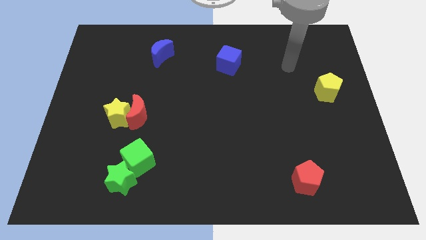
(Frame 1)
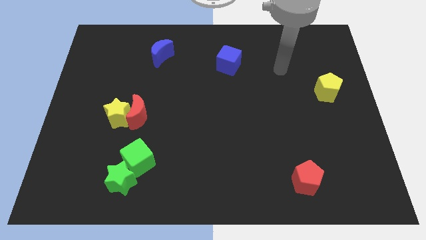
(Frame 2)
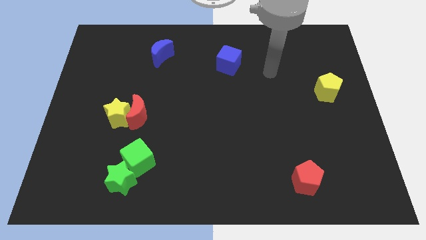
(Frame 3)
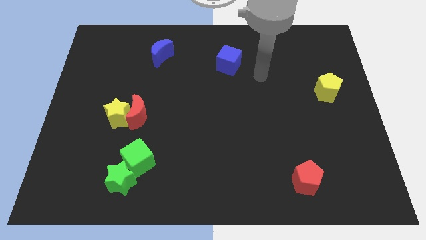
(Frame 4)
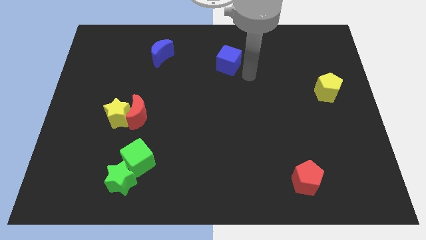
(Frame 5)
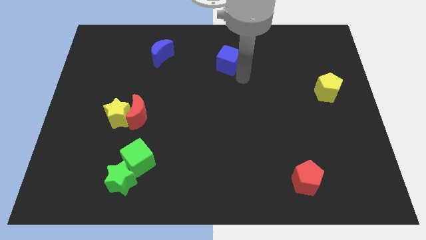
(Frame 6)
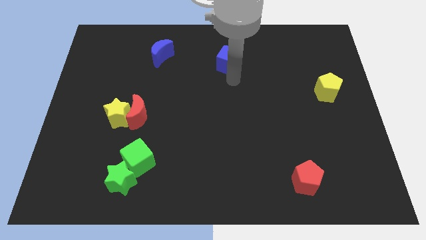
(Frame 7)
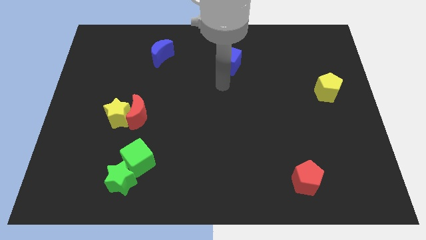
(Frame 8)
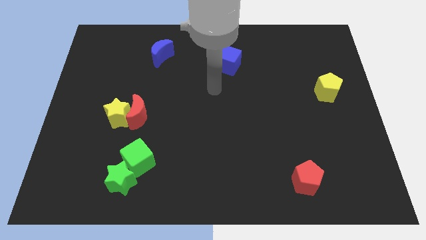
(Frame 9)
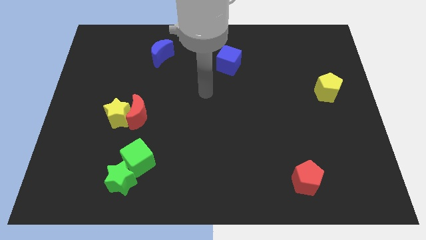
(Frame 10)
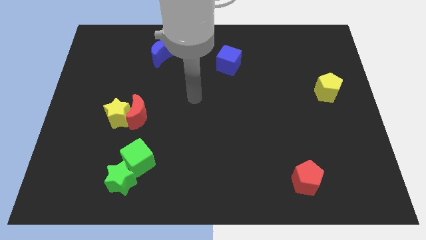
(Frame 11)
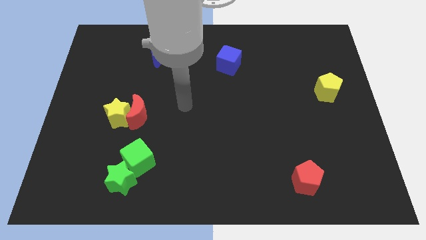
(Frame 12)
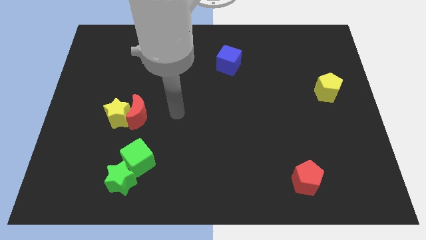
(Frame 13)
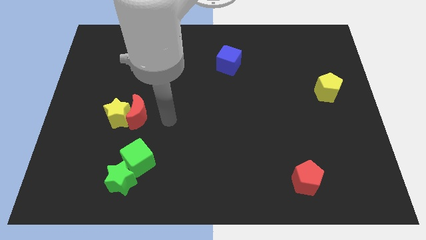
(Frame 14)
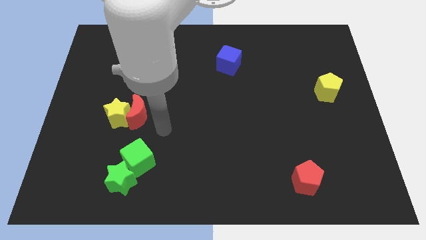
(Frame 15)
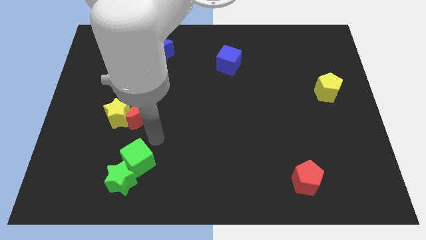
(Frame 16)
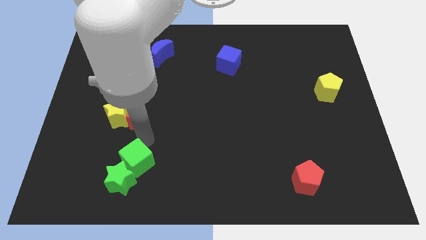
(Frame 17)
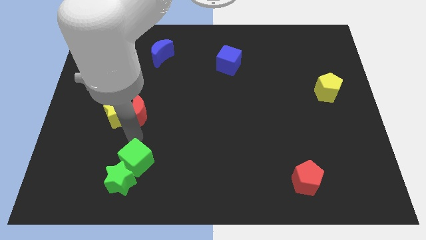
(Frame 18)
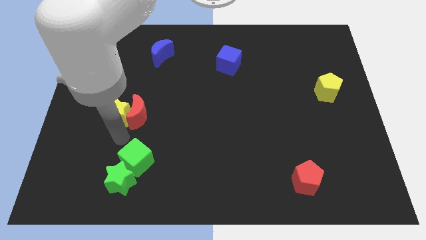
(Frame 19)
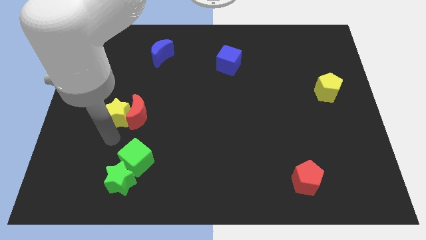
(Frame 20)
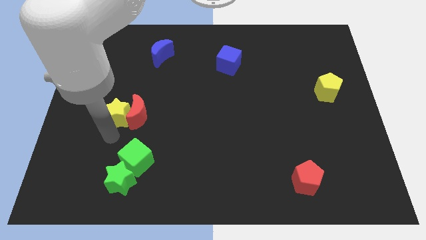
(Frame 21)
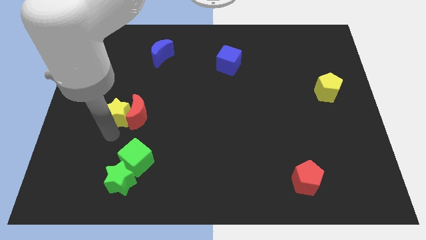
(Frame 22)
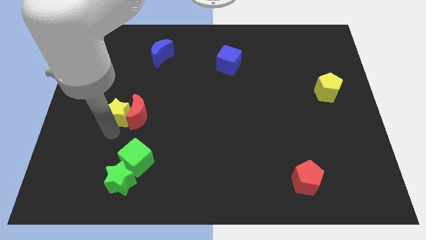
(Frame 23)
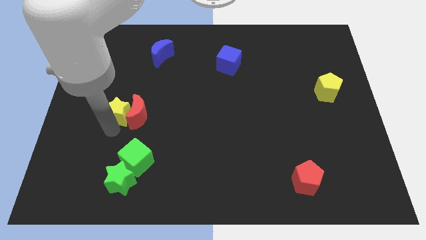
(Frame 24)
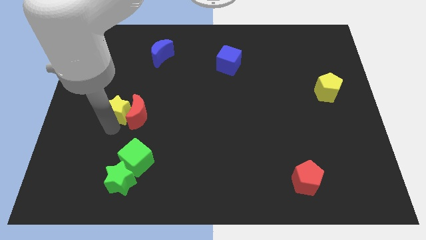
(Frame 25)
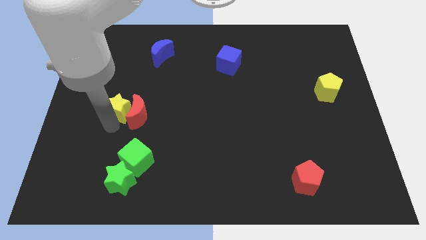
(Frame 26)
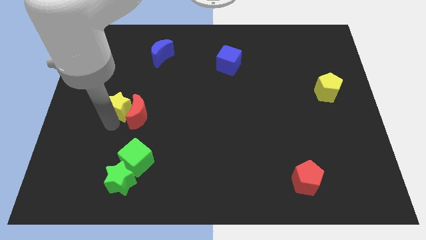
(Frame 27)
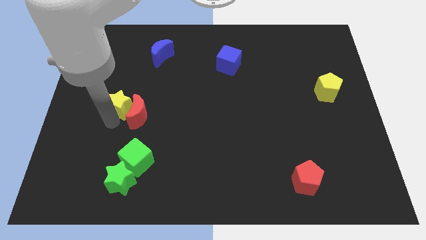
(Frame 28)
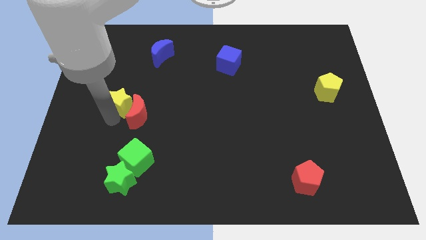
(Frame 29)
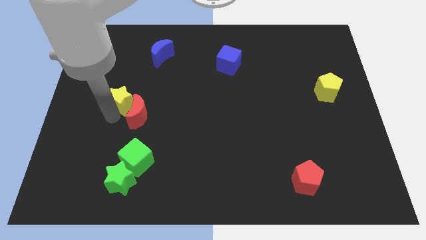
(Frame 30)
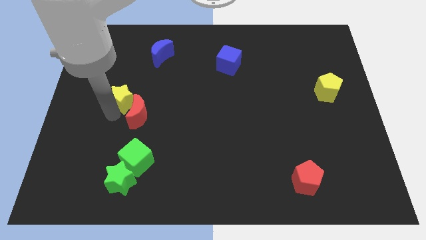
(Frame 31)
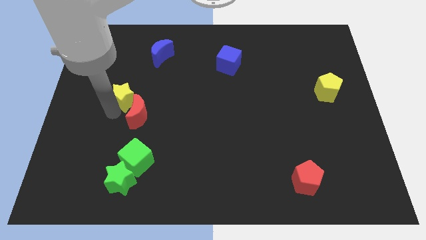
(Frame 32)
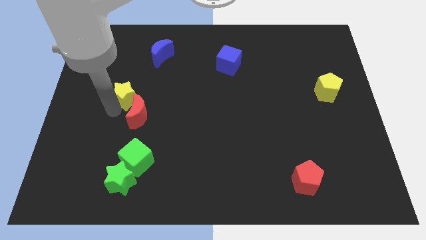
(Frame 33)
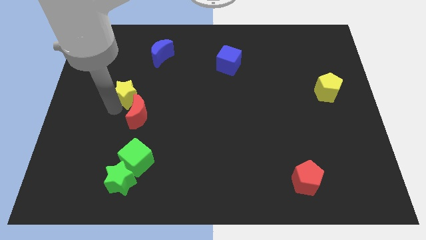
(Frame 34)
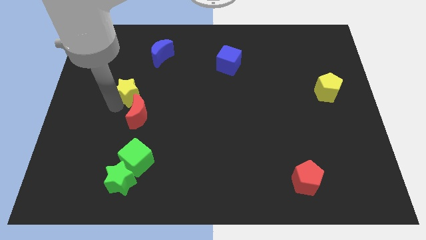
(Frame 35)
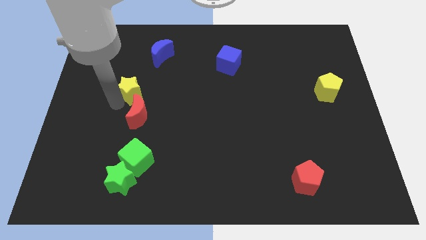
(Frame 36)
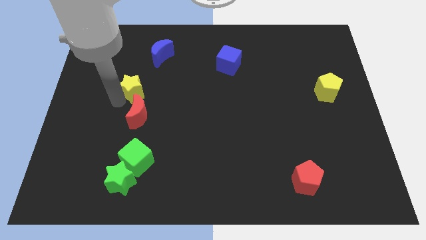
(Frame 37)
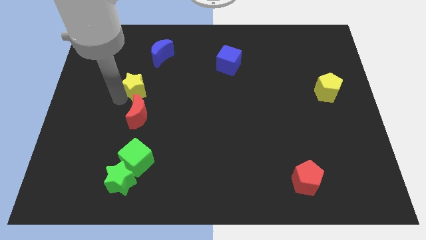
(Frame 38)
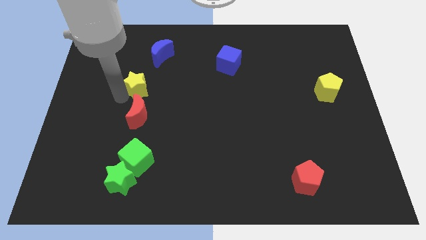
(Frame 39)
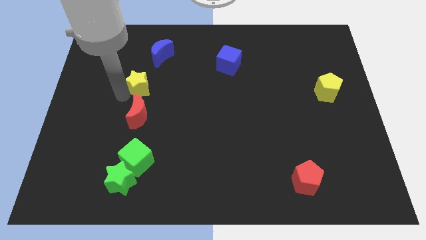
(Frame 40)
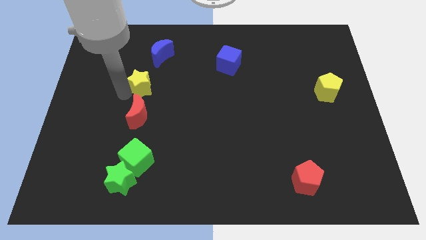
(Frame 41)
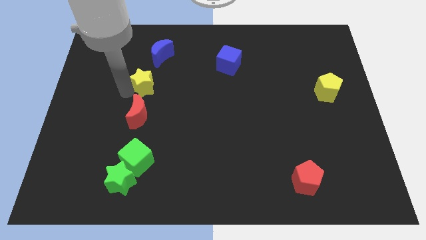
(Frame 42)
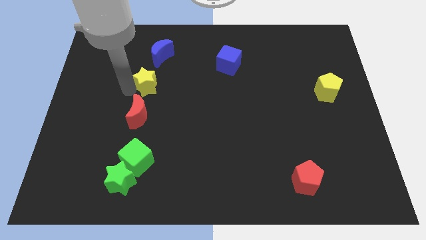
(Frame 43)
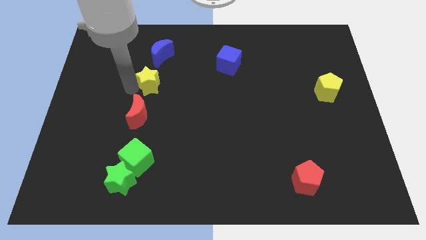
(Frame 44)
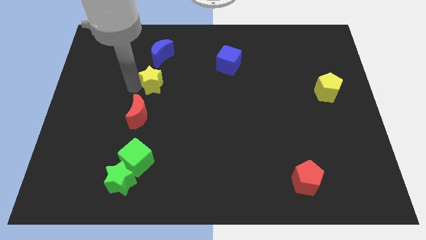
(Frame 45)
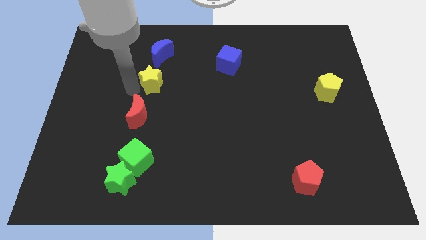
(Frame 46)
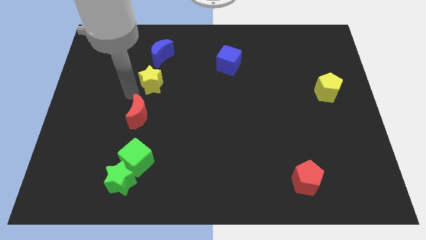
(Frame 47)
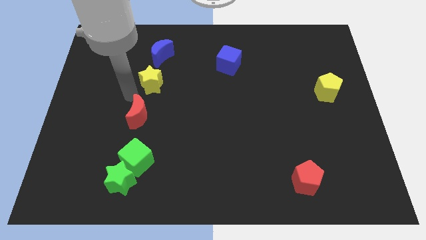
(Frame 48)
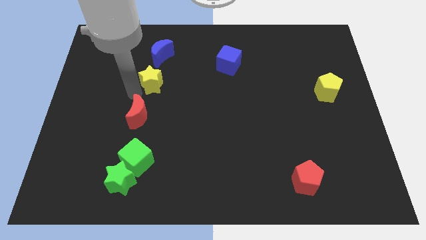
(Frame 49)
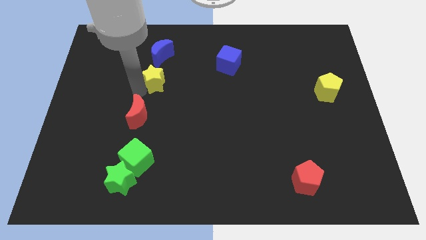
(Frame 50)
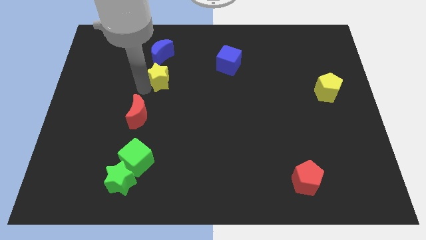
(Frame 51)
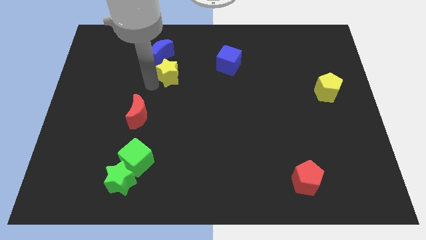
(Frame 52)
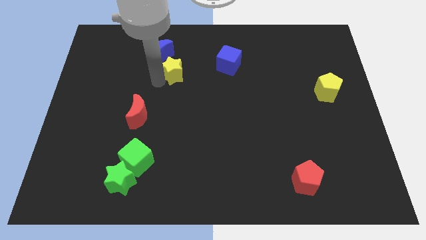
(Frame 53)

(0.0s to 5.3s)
move the yellow star to the left side of the blue cube
